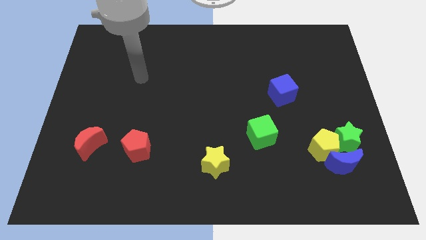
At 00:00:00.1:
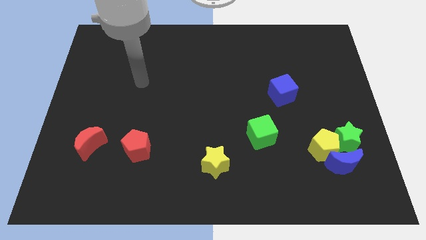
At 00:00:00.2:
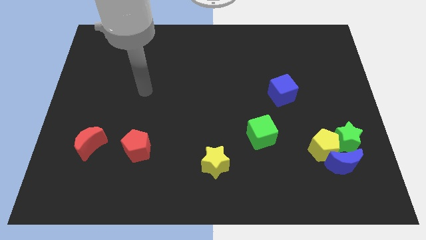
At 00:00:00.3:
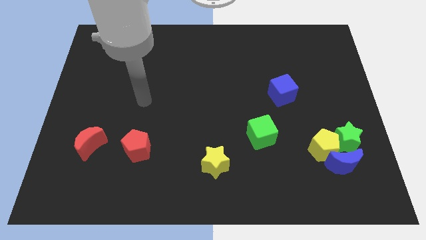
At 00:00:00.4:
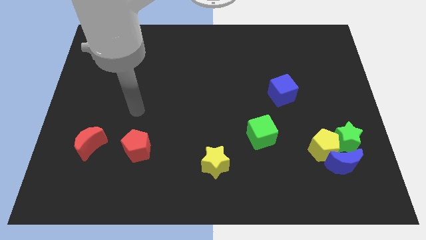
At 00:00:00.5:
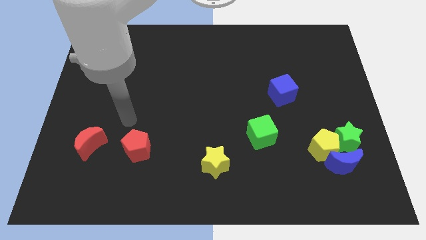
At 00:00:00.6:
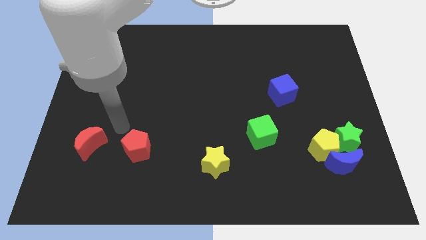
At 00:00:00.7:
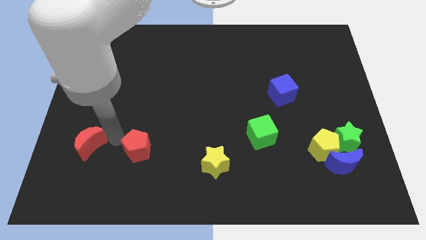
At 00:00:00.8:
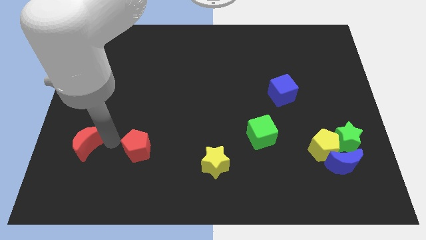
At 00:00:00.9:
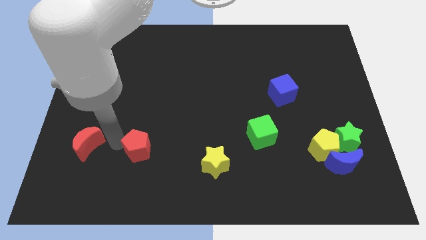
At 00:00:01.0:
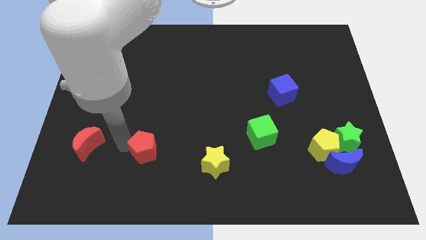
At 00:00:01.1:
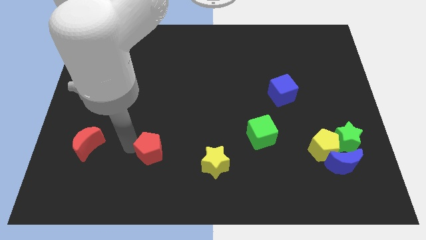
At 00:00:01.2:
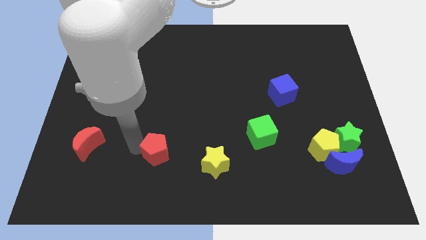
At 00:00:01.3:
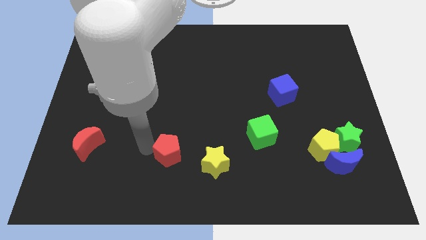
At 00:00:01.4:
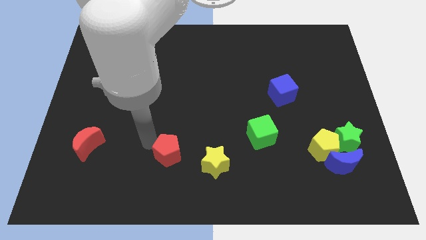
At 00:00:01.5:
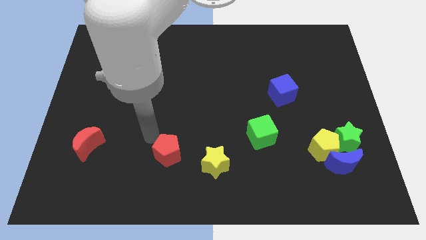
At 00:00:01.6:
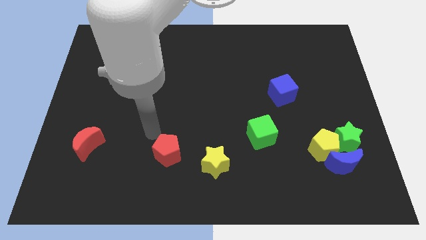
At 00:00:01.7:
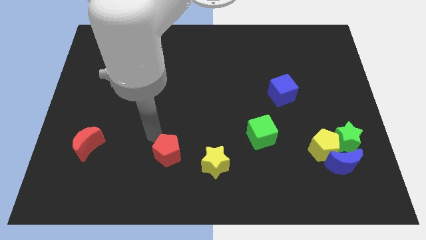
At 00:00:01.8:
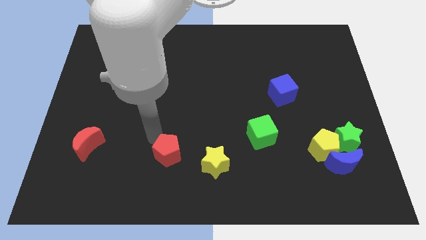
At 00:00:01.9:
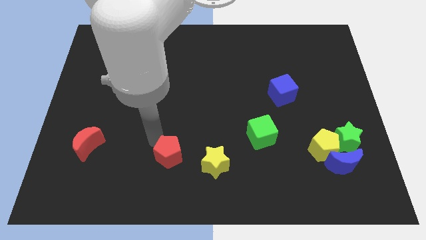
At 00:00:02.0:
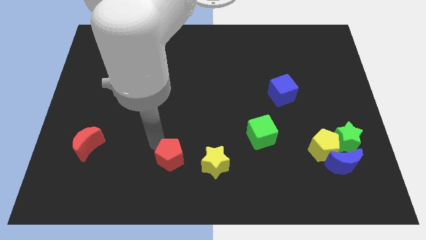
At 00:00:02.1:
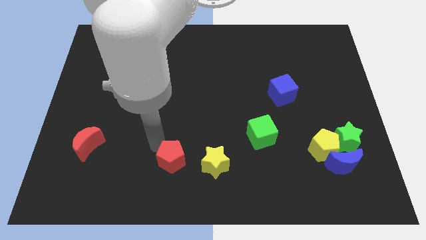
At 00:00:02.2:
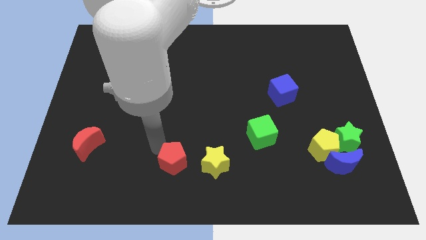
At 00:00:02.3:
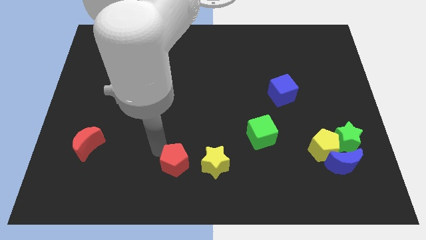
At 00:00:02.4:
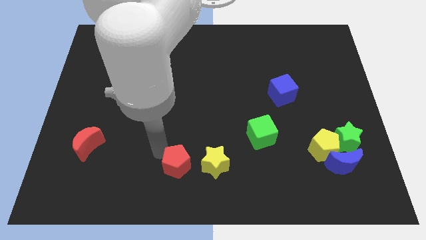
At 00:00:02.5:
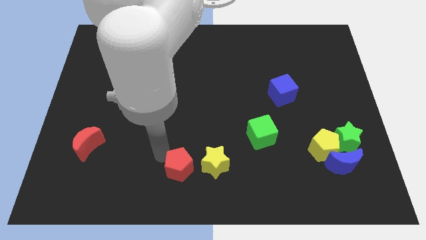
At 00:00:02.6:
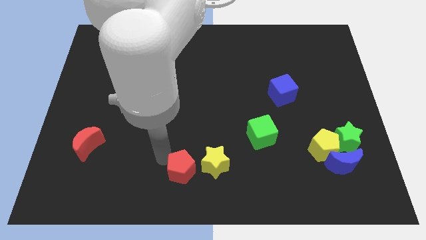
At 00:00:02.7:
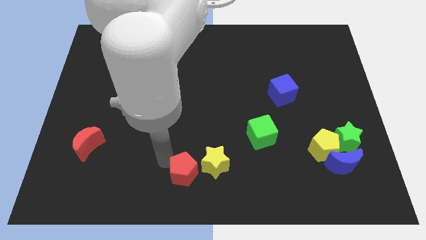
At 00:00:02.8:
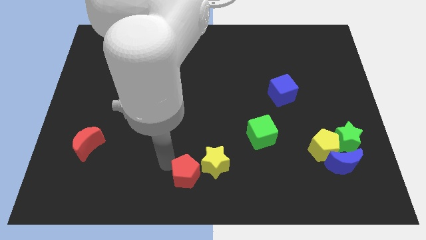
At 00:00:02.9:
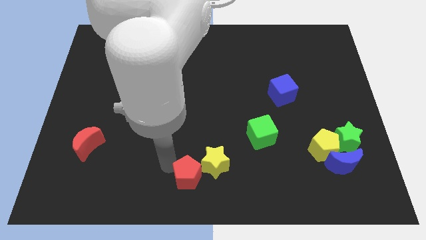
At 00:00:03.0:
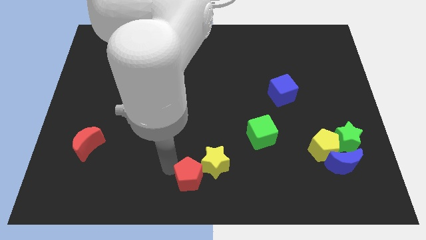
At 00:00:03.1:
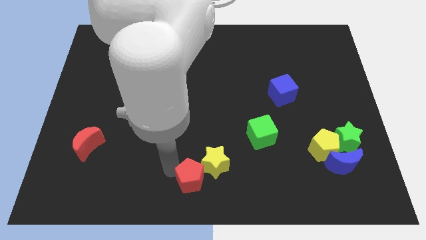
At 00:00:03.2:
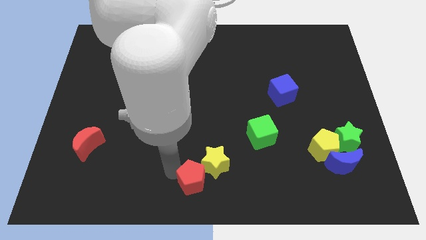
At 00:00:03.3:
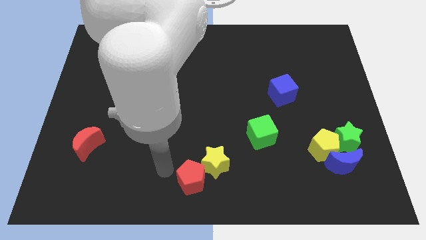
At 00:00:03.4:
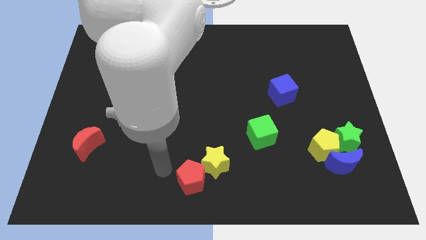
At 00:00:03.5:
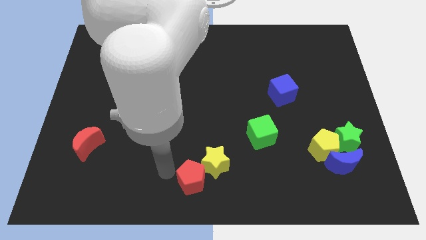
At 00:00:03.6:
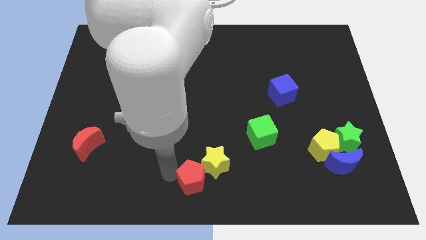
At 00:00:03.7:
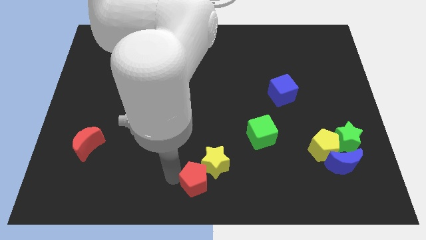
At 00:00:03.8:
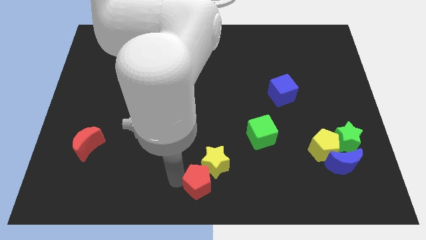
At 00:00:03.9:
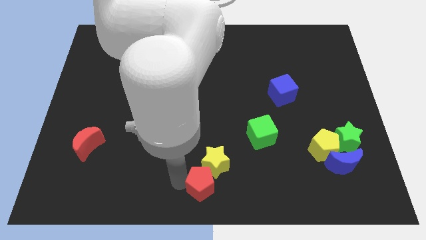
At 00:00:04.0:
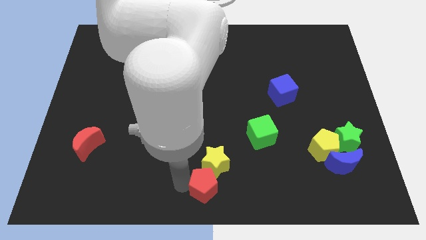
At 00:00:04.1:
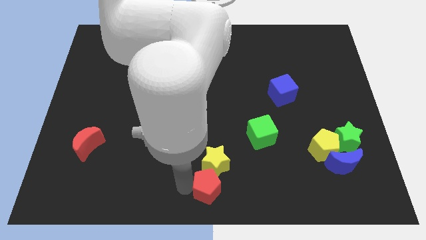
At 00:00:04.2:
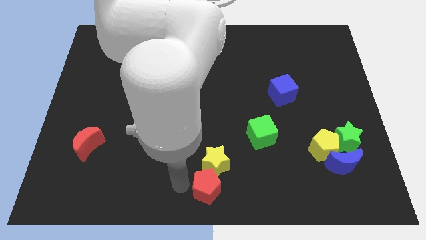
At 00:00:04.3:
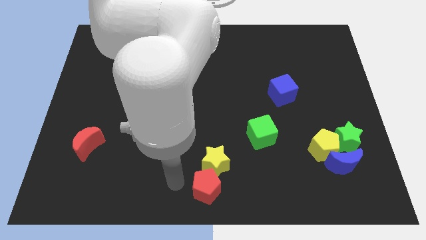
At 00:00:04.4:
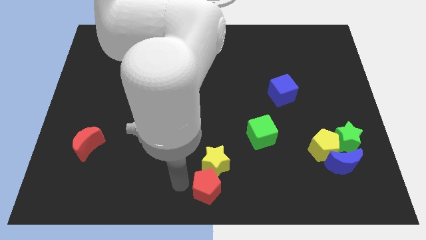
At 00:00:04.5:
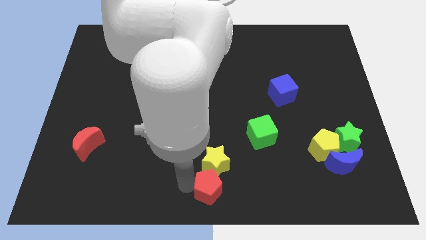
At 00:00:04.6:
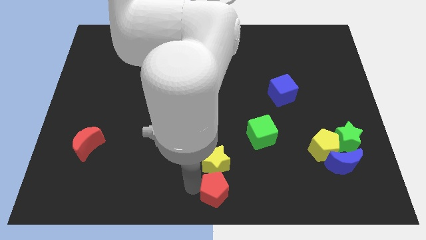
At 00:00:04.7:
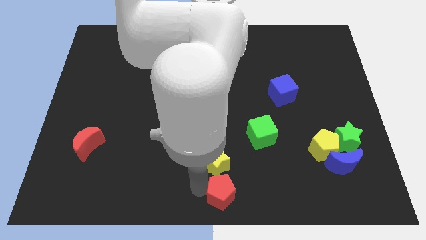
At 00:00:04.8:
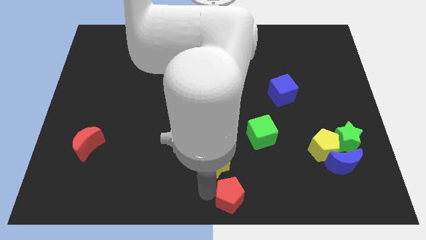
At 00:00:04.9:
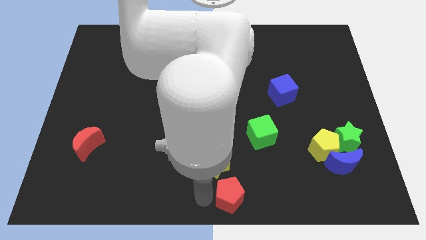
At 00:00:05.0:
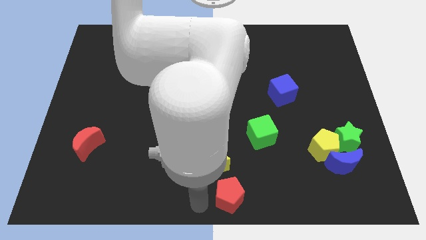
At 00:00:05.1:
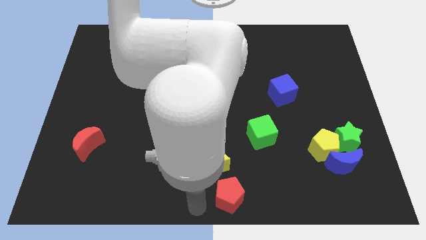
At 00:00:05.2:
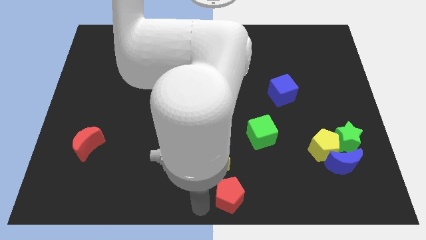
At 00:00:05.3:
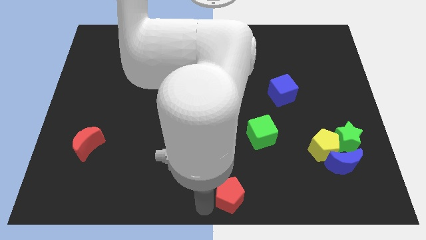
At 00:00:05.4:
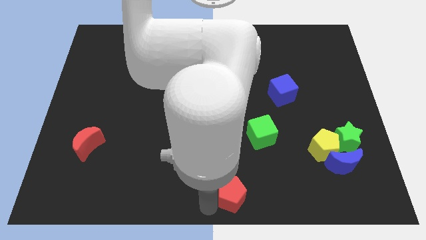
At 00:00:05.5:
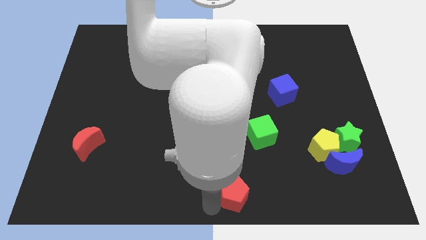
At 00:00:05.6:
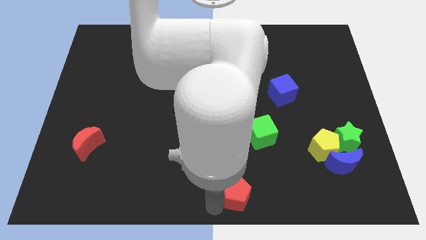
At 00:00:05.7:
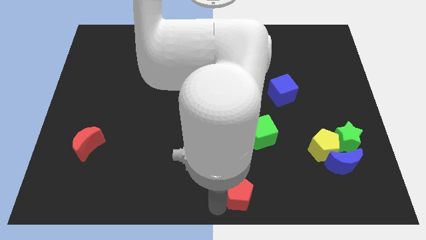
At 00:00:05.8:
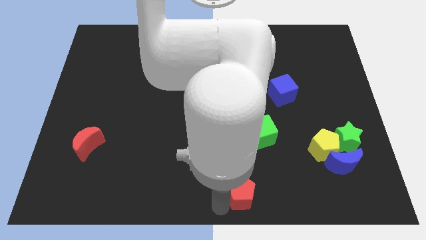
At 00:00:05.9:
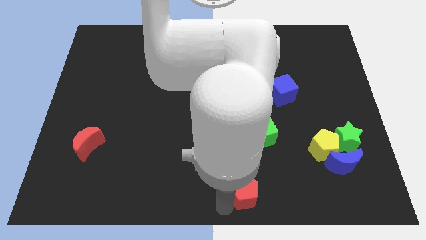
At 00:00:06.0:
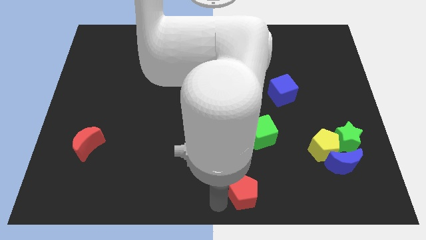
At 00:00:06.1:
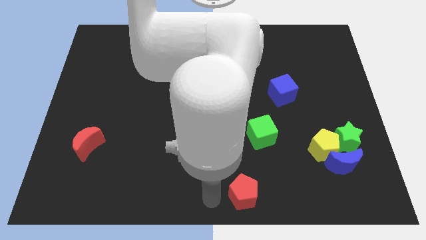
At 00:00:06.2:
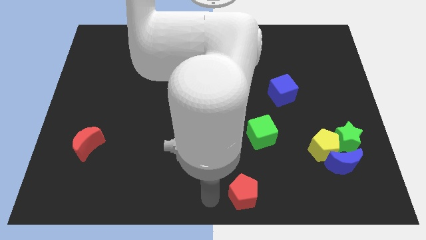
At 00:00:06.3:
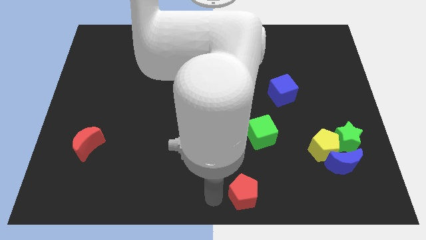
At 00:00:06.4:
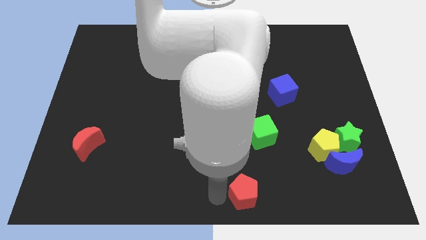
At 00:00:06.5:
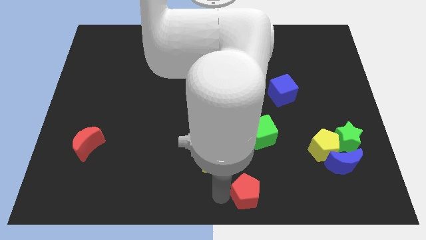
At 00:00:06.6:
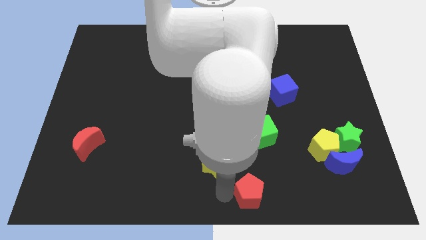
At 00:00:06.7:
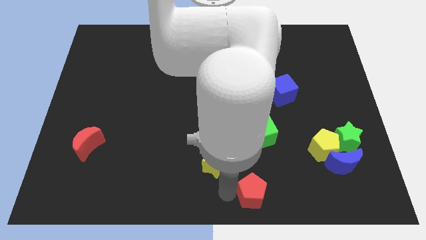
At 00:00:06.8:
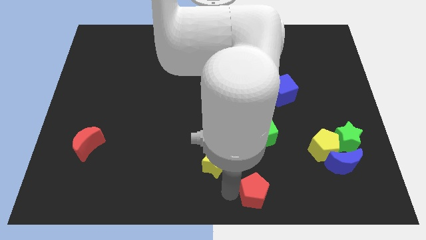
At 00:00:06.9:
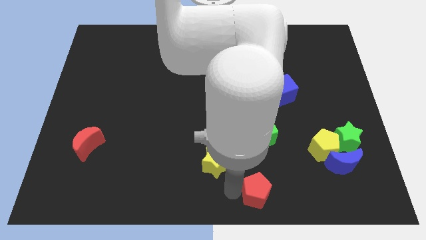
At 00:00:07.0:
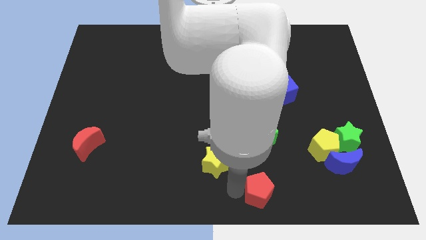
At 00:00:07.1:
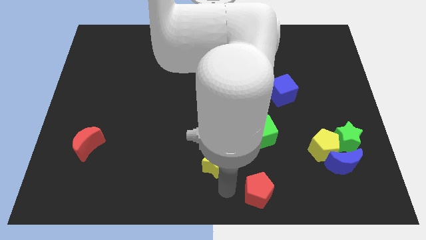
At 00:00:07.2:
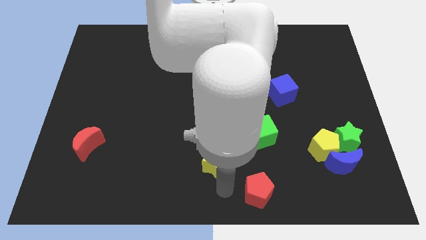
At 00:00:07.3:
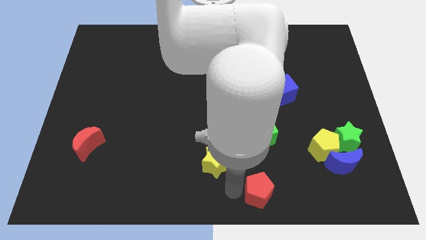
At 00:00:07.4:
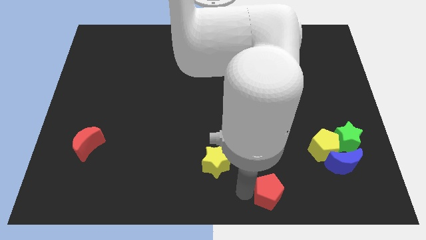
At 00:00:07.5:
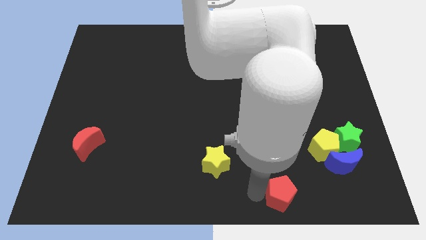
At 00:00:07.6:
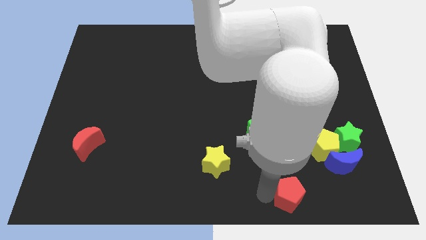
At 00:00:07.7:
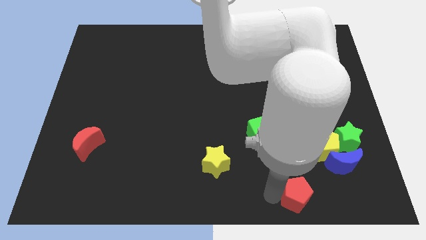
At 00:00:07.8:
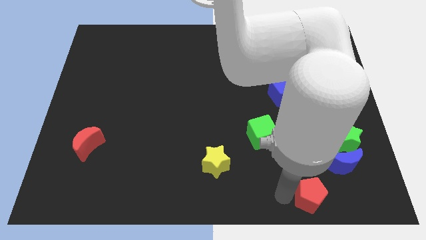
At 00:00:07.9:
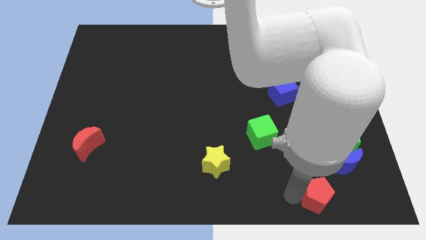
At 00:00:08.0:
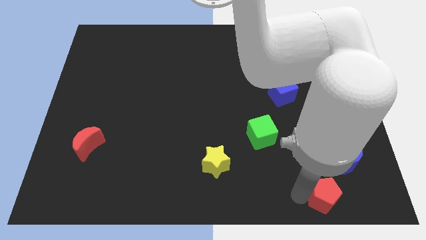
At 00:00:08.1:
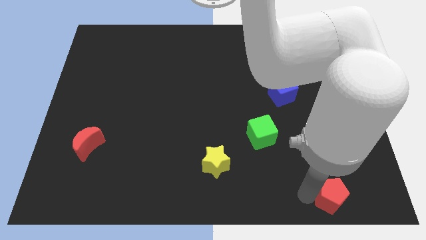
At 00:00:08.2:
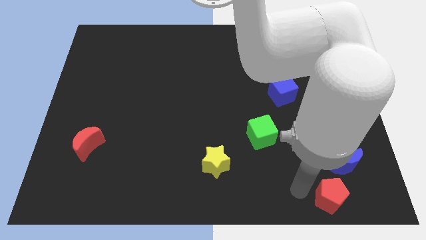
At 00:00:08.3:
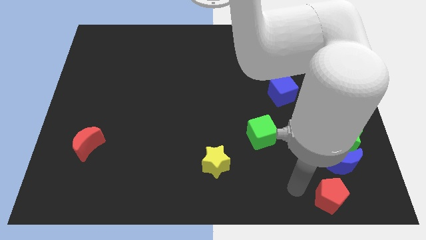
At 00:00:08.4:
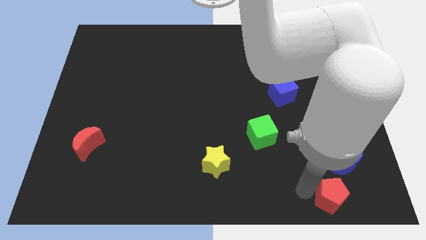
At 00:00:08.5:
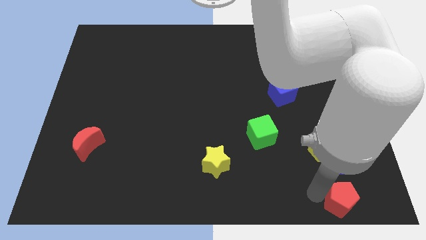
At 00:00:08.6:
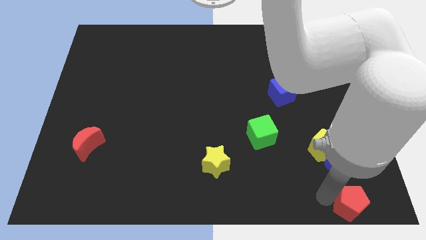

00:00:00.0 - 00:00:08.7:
push the red pentagon to the bottom right
